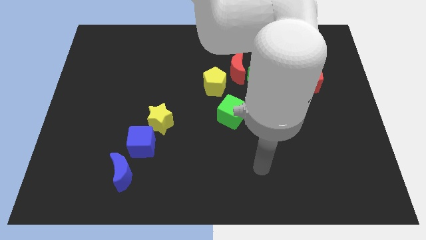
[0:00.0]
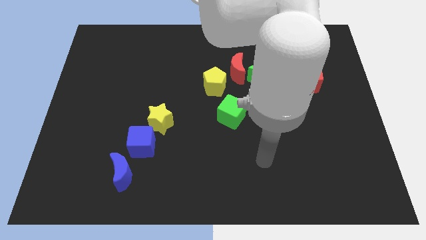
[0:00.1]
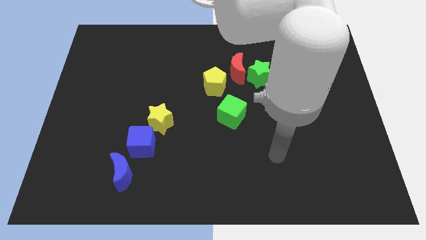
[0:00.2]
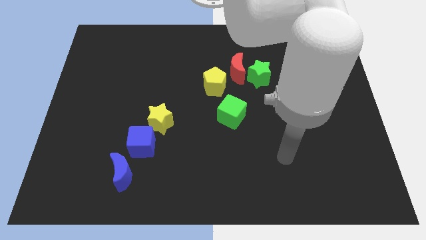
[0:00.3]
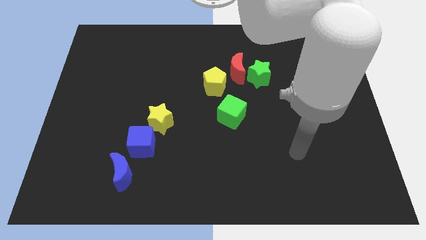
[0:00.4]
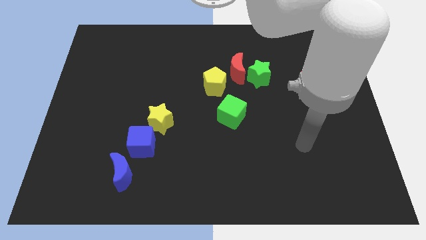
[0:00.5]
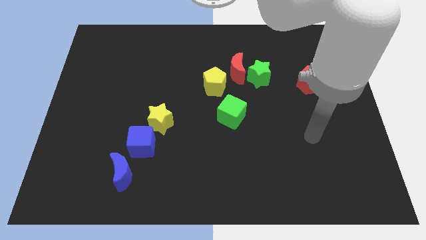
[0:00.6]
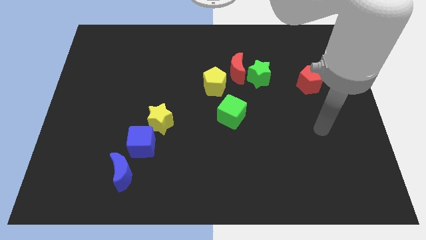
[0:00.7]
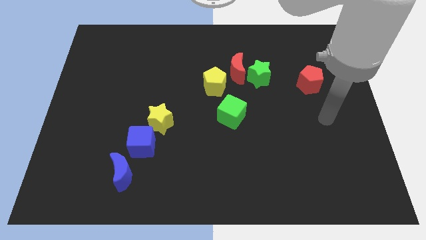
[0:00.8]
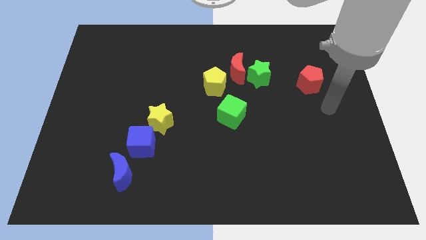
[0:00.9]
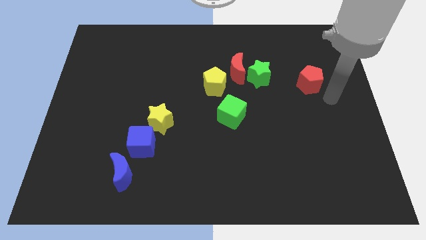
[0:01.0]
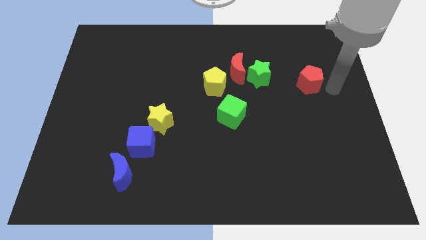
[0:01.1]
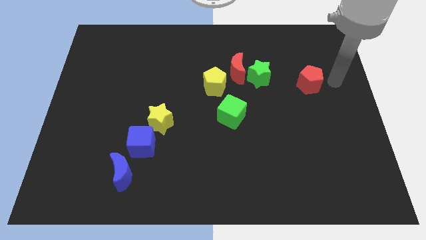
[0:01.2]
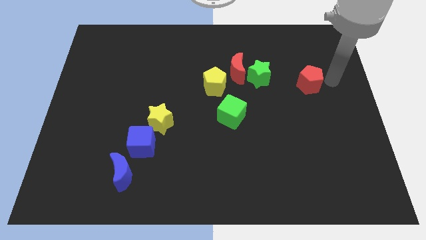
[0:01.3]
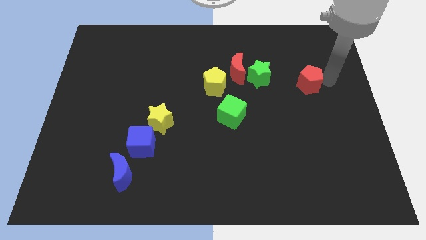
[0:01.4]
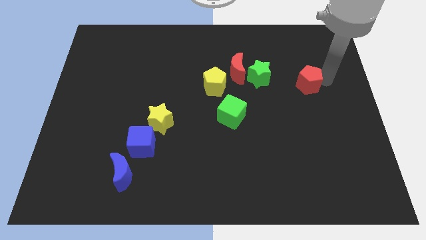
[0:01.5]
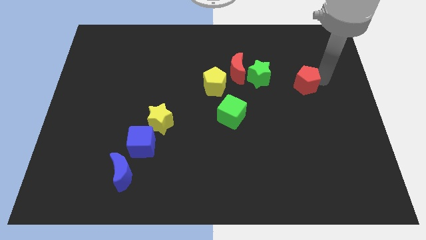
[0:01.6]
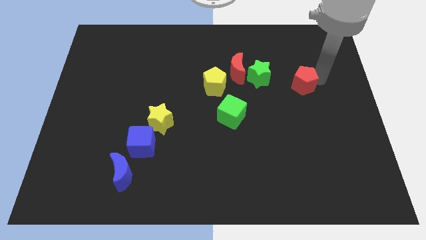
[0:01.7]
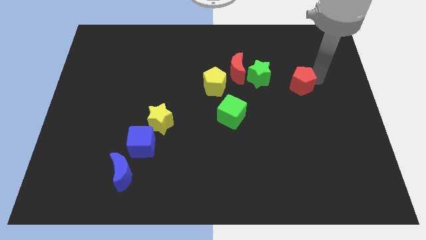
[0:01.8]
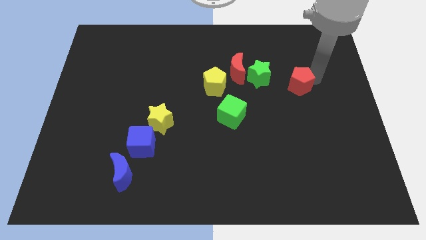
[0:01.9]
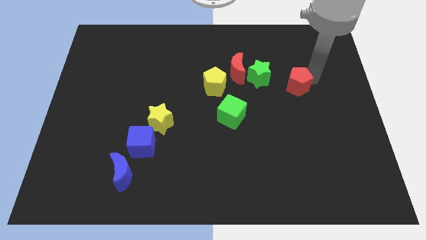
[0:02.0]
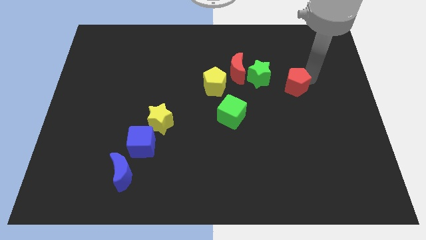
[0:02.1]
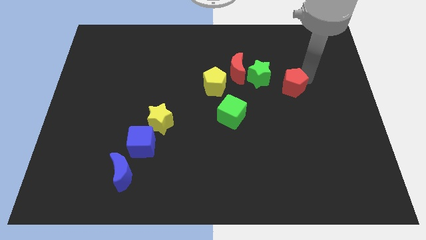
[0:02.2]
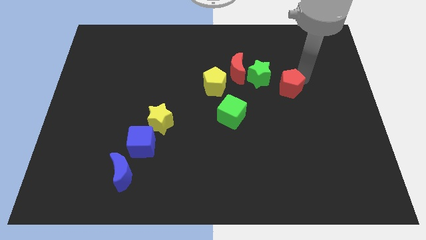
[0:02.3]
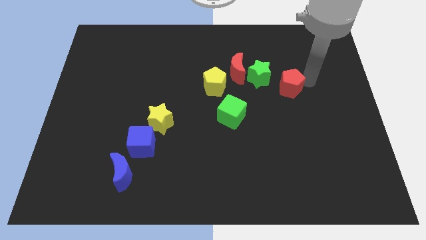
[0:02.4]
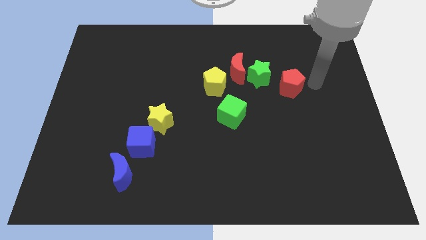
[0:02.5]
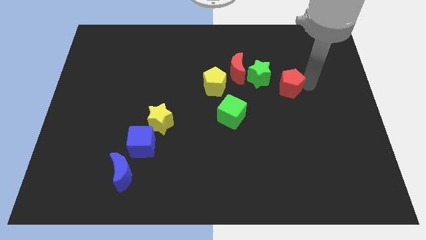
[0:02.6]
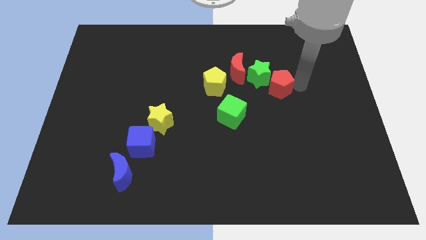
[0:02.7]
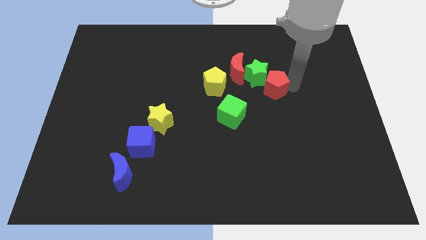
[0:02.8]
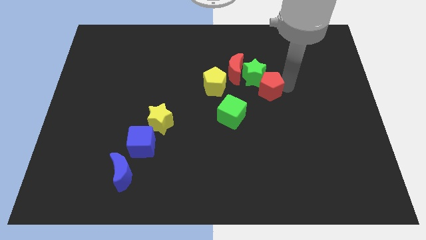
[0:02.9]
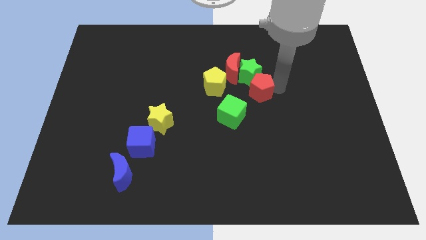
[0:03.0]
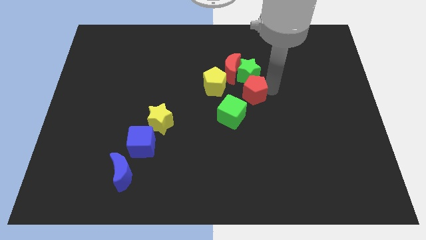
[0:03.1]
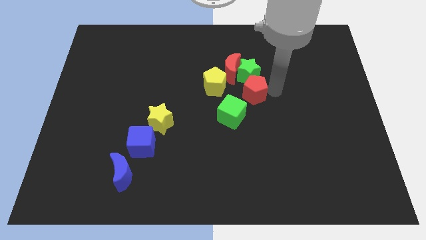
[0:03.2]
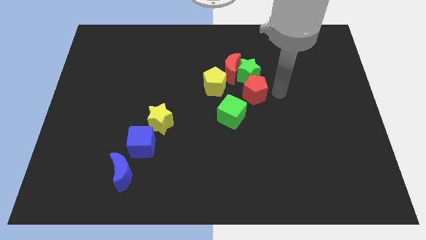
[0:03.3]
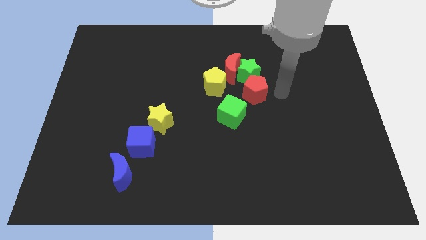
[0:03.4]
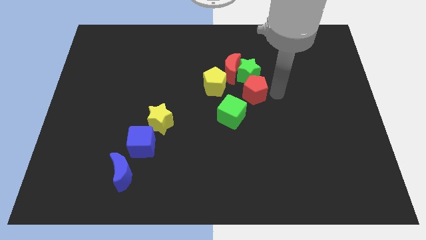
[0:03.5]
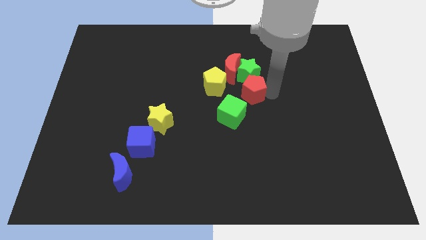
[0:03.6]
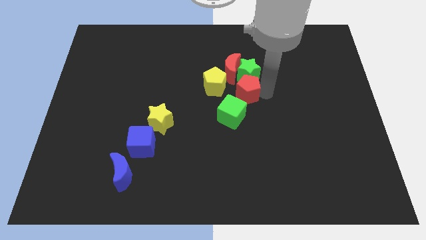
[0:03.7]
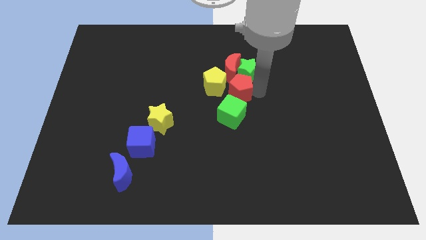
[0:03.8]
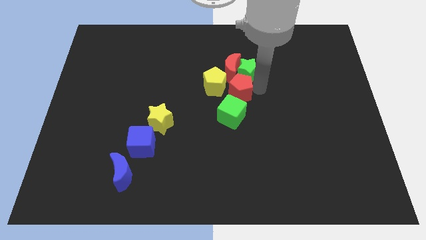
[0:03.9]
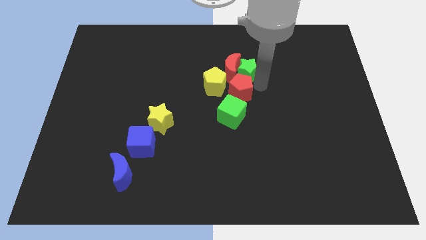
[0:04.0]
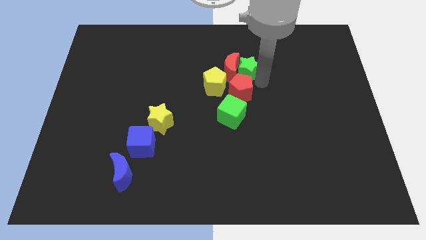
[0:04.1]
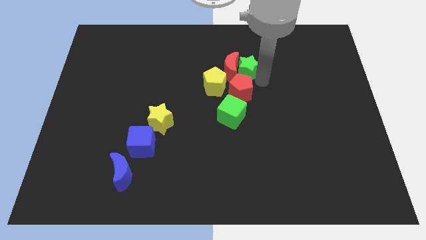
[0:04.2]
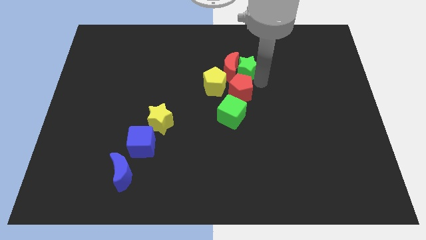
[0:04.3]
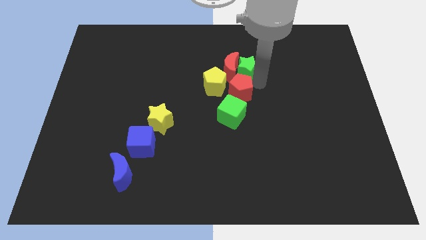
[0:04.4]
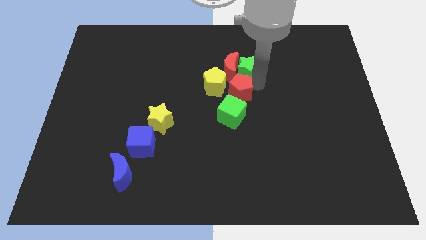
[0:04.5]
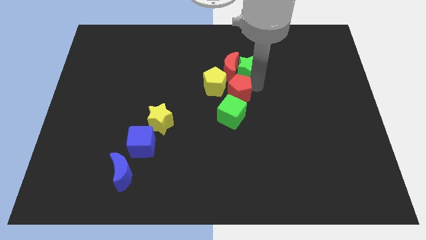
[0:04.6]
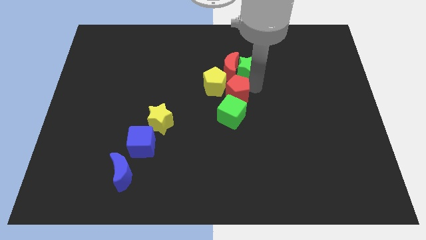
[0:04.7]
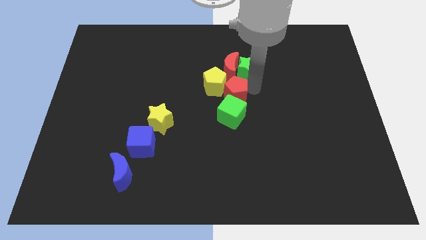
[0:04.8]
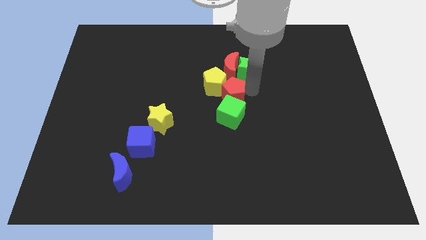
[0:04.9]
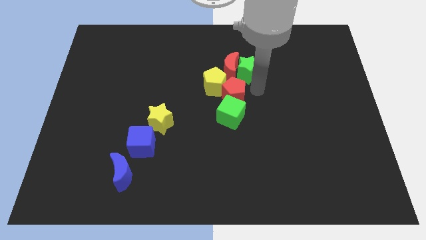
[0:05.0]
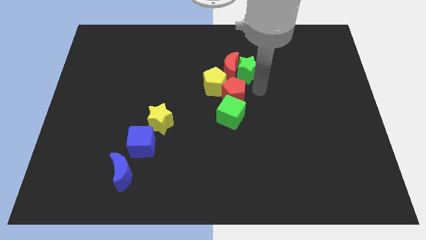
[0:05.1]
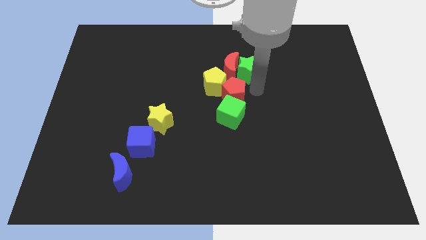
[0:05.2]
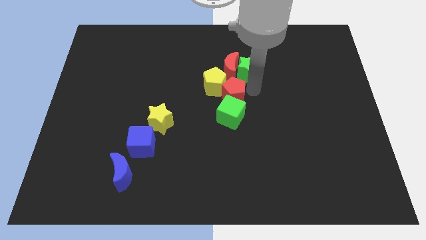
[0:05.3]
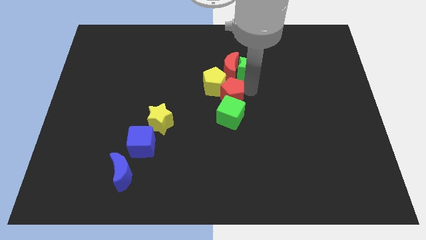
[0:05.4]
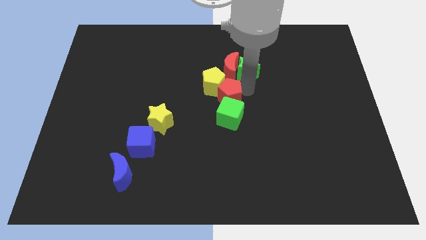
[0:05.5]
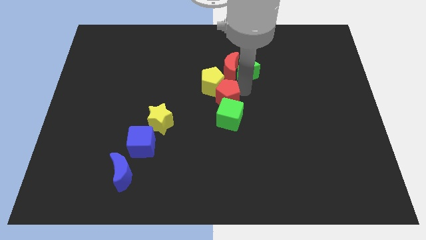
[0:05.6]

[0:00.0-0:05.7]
slide the red pentagon left

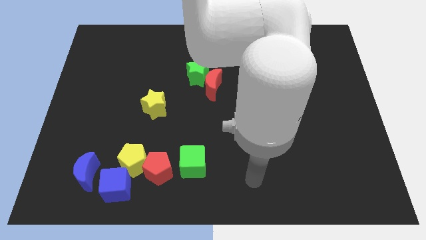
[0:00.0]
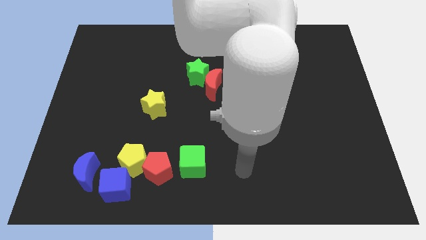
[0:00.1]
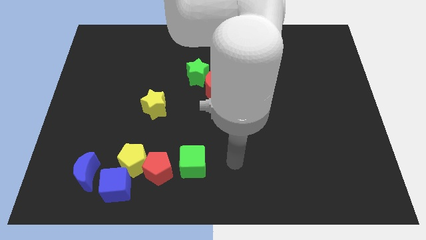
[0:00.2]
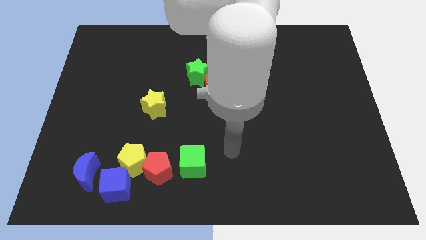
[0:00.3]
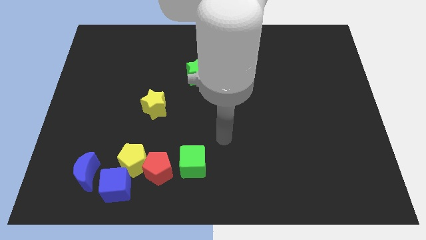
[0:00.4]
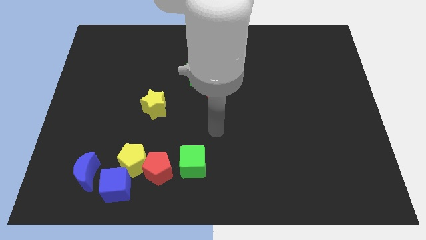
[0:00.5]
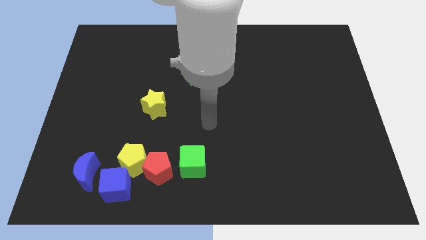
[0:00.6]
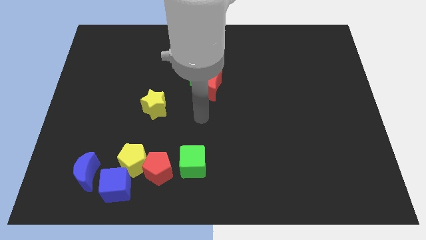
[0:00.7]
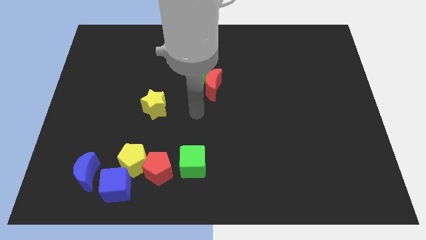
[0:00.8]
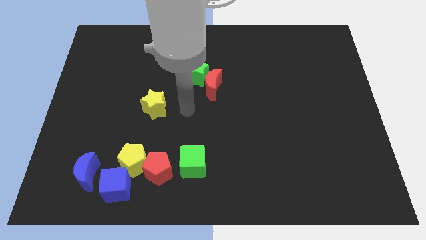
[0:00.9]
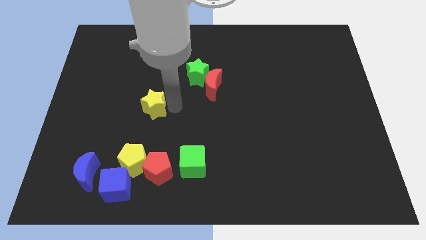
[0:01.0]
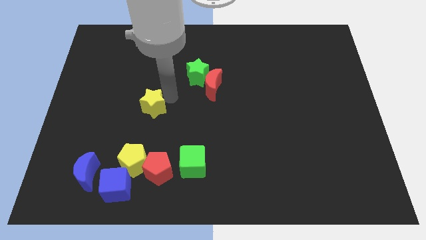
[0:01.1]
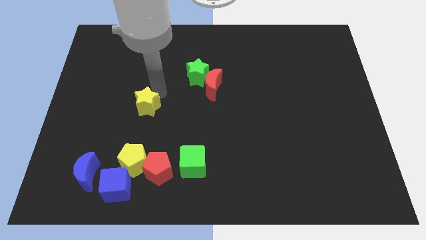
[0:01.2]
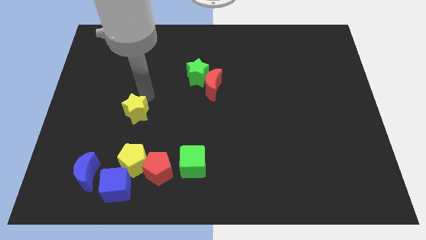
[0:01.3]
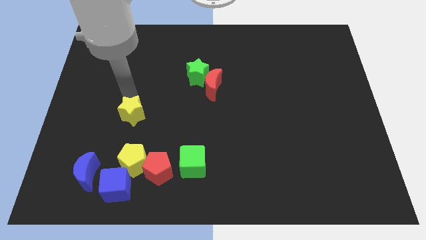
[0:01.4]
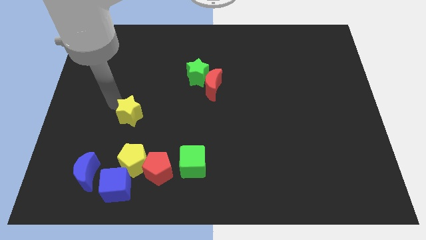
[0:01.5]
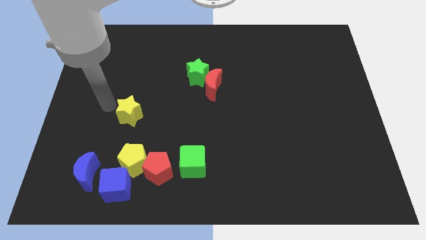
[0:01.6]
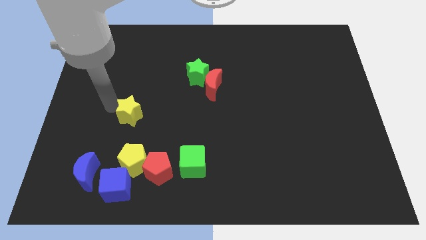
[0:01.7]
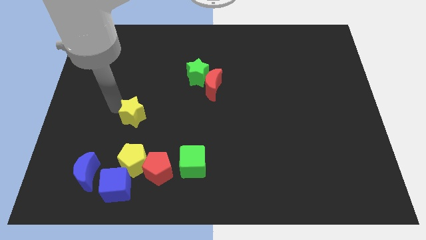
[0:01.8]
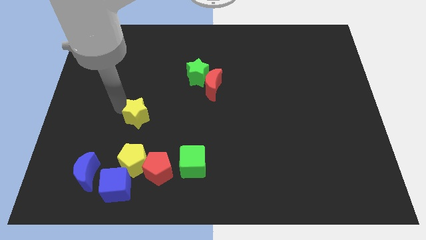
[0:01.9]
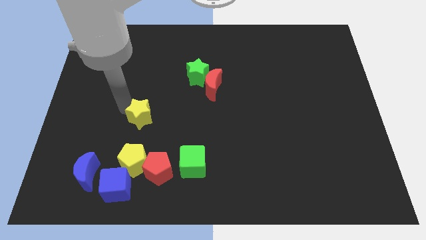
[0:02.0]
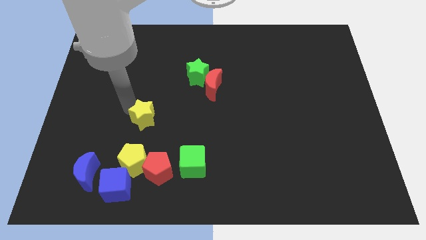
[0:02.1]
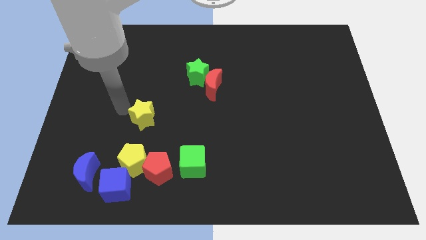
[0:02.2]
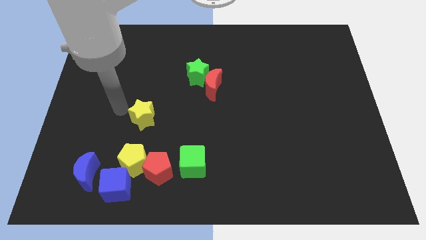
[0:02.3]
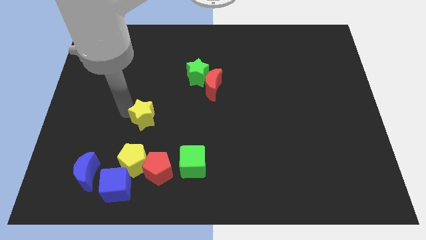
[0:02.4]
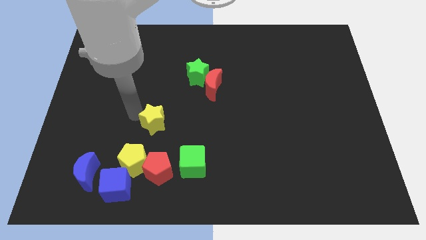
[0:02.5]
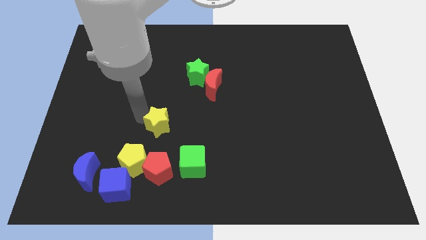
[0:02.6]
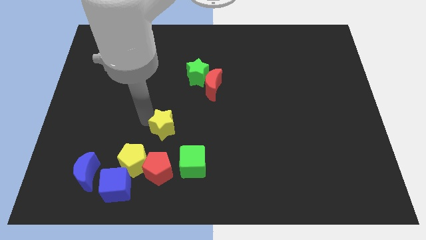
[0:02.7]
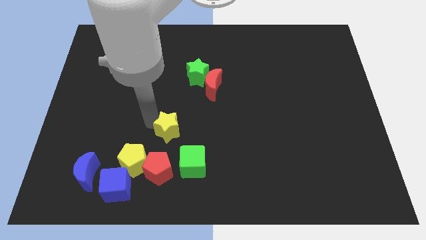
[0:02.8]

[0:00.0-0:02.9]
push the yellow star somewhat down and right
